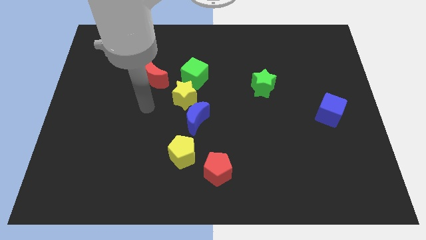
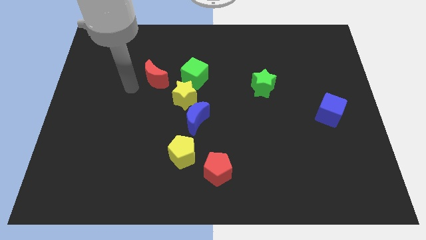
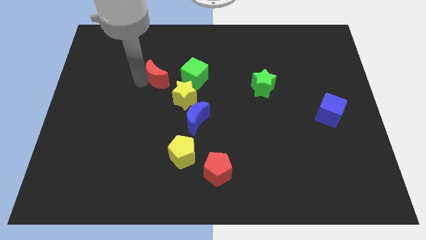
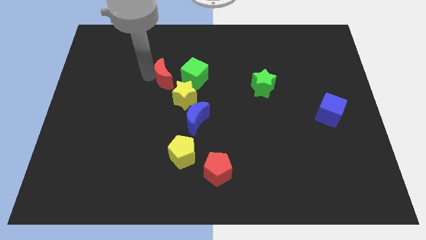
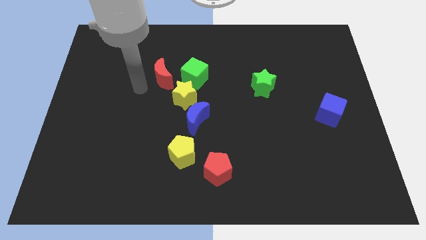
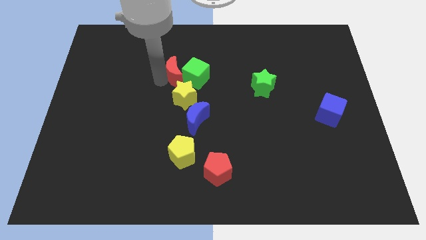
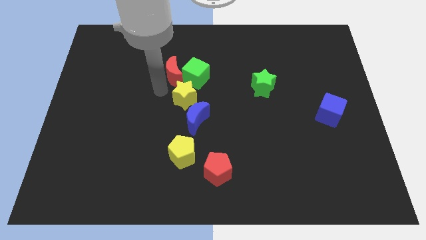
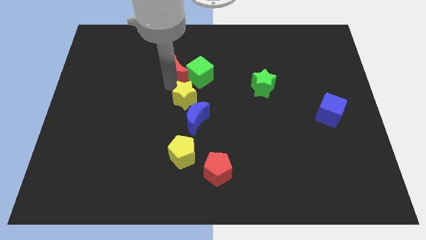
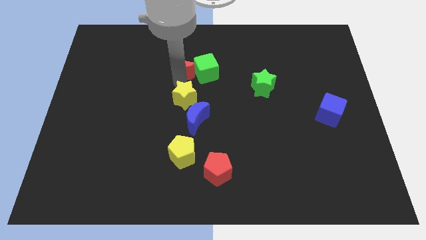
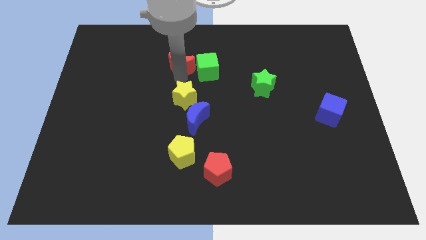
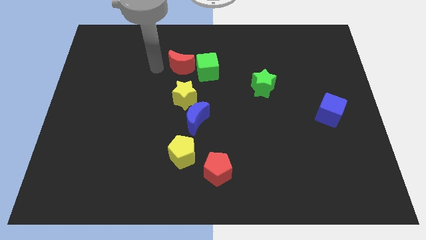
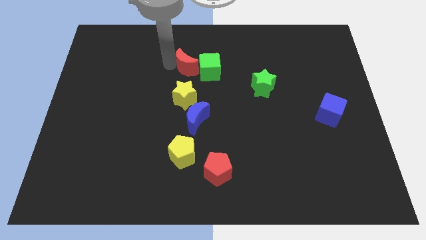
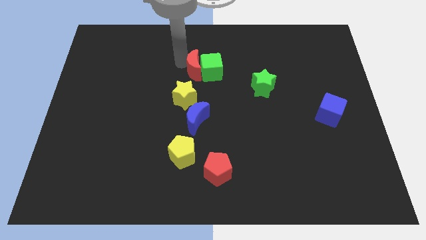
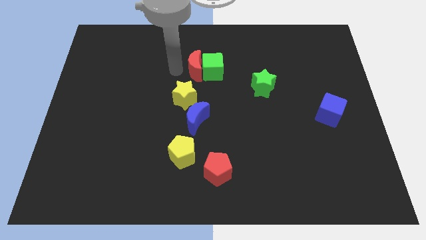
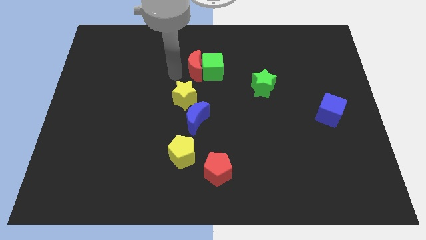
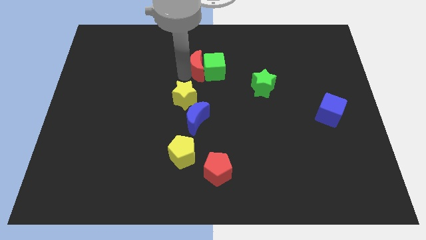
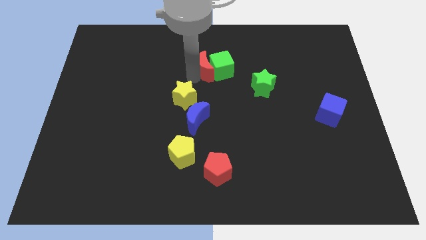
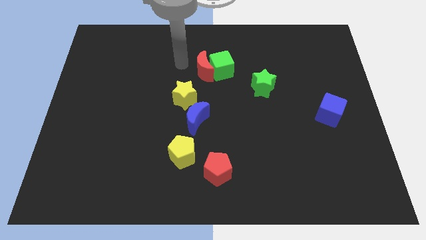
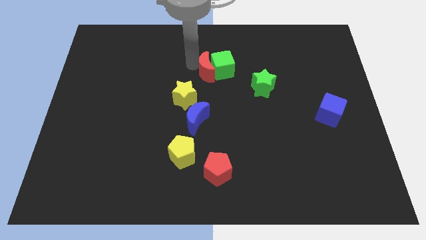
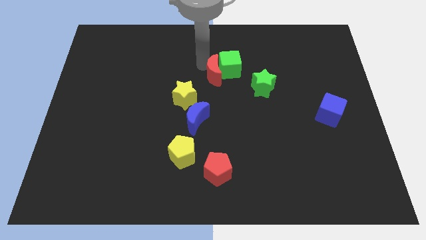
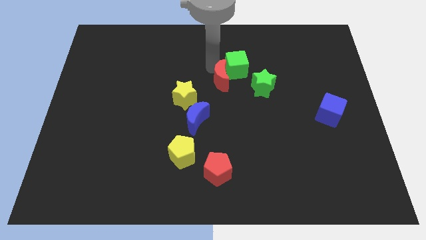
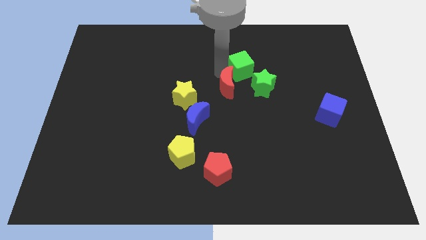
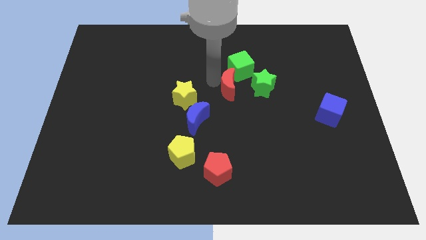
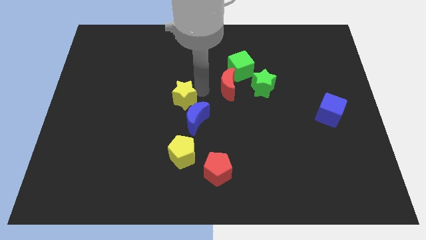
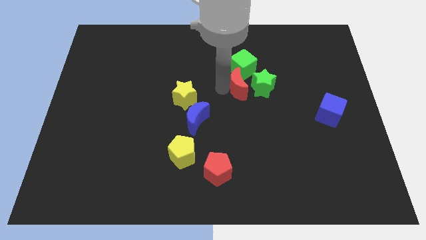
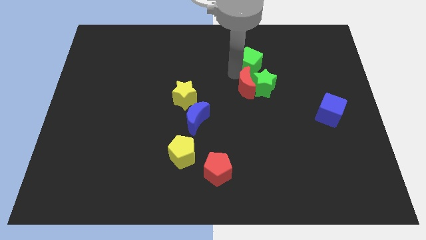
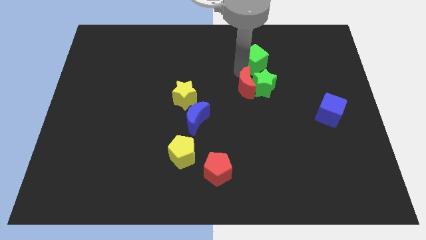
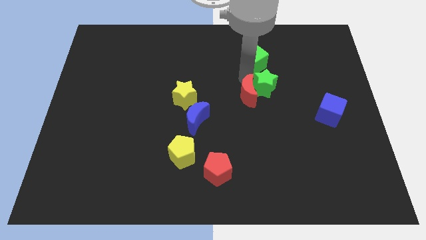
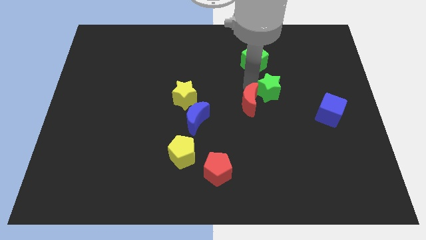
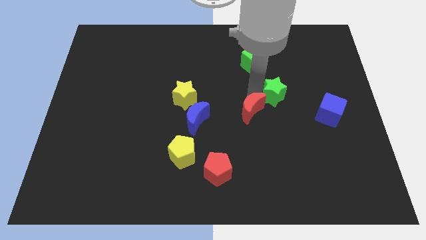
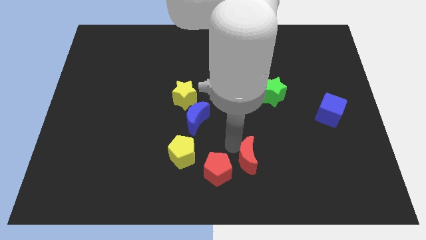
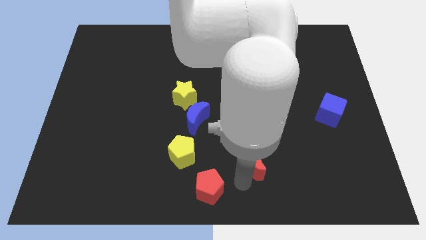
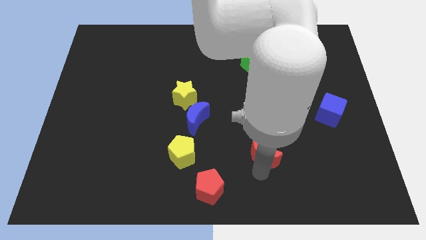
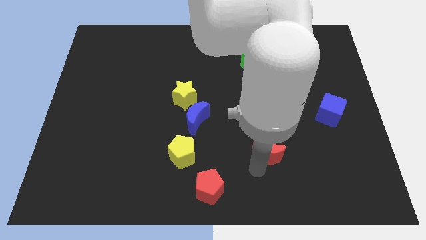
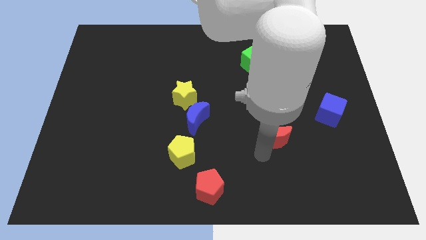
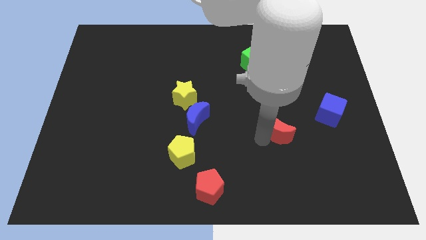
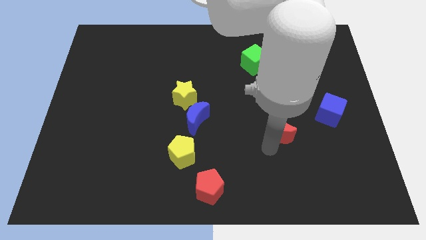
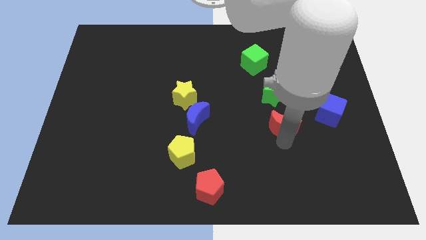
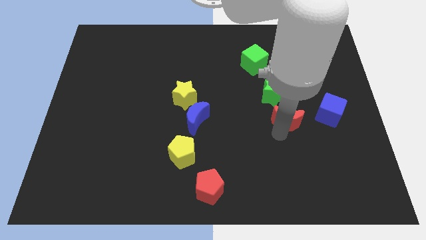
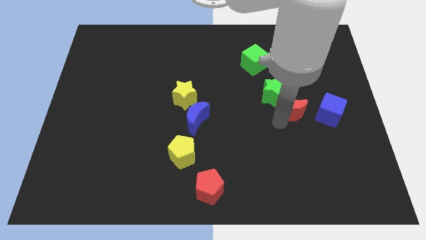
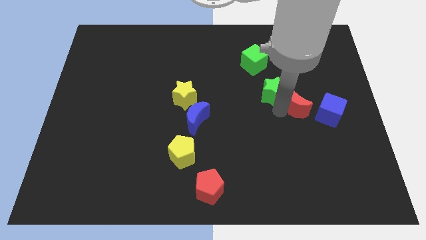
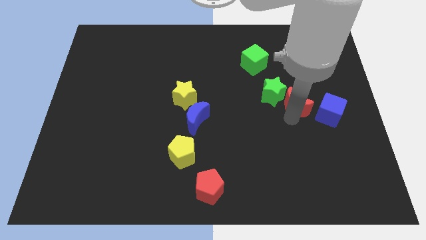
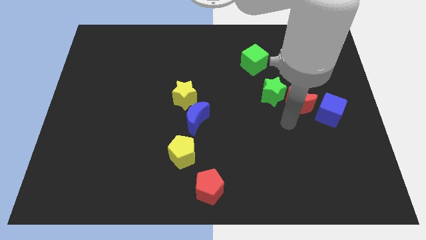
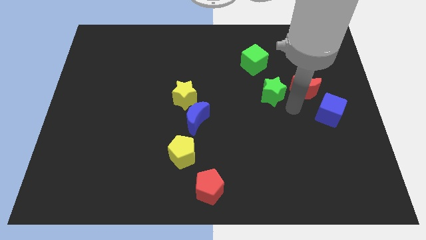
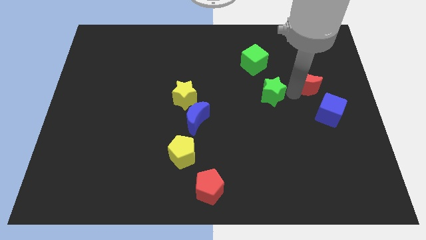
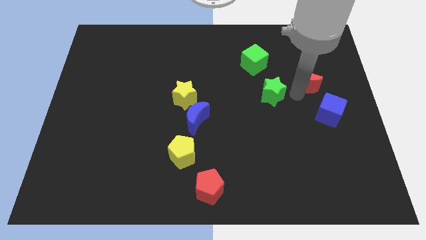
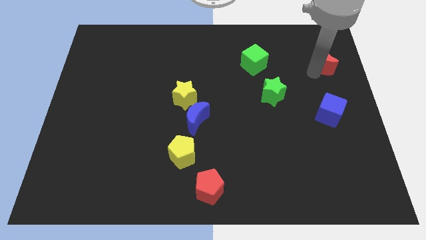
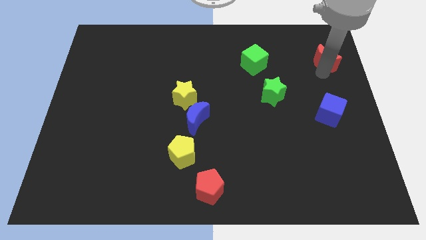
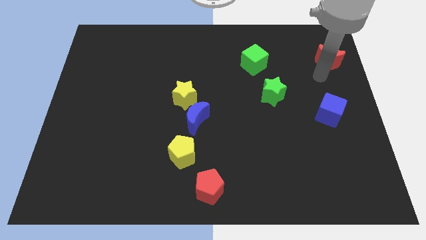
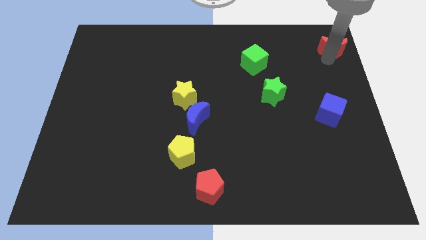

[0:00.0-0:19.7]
slide the red moon to the top right of the board

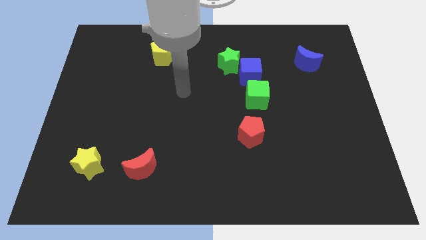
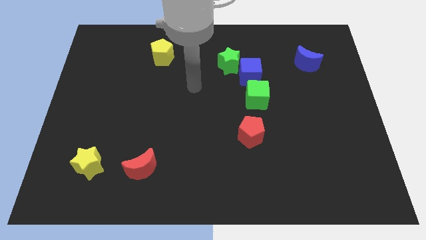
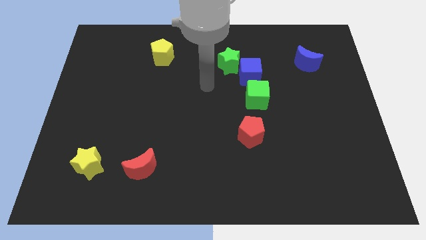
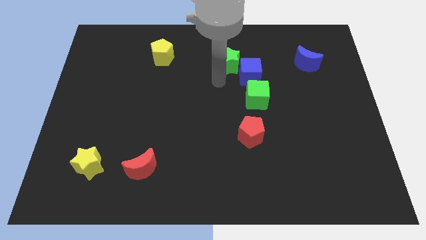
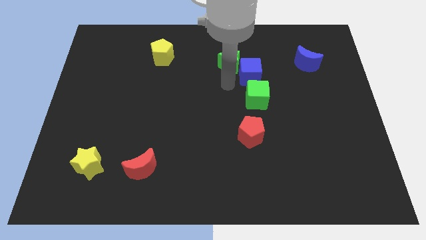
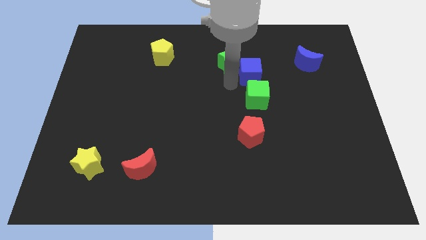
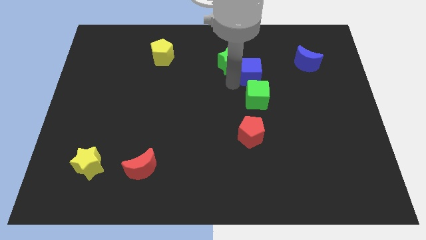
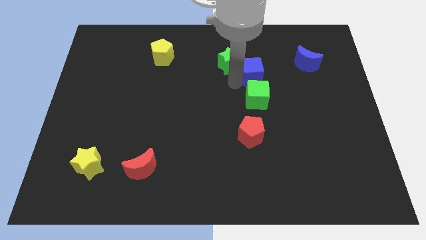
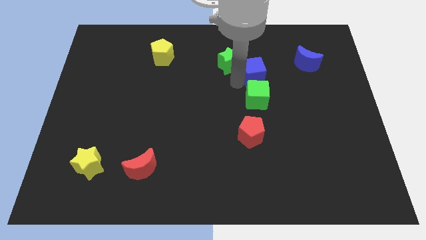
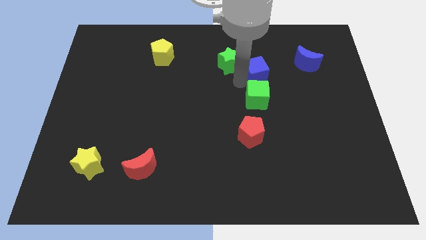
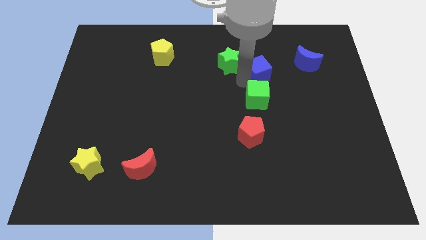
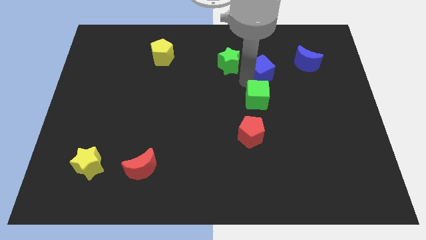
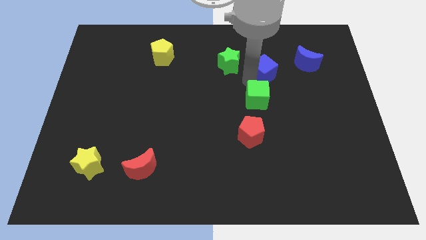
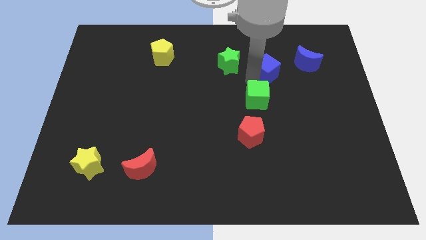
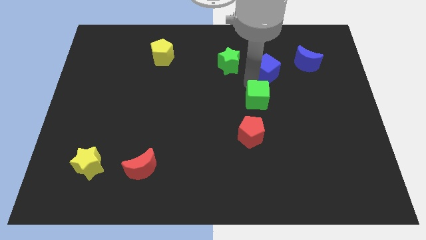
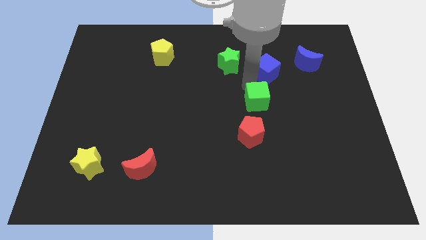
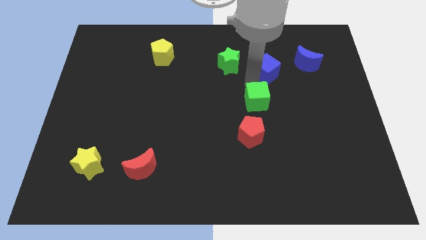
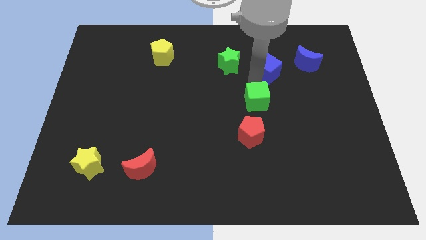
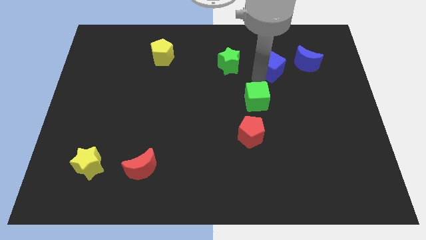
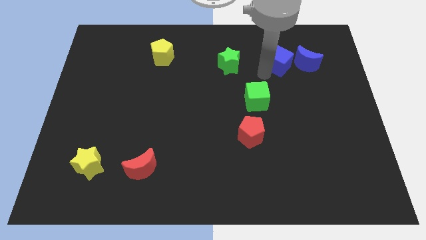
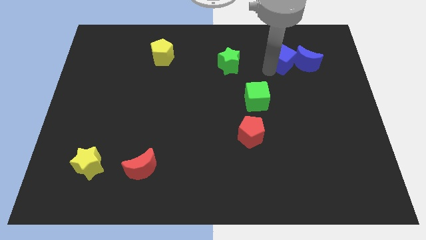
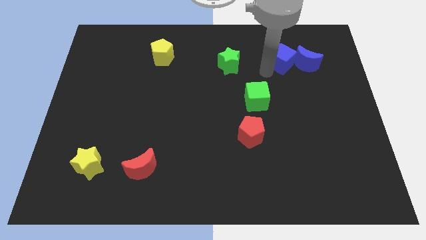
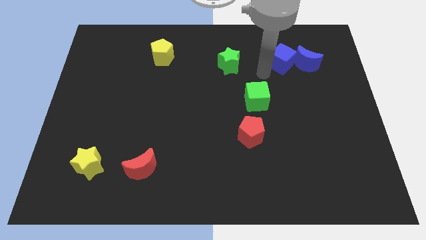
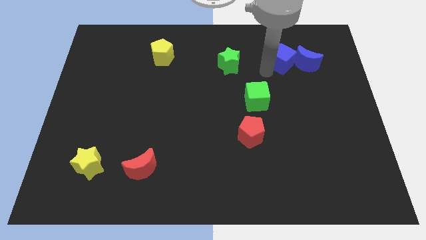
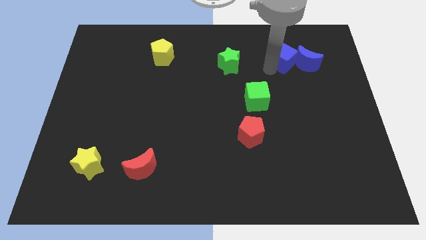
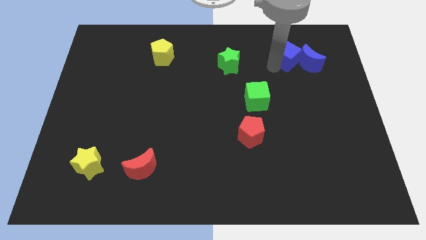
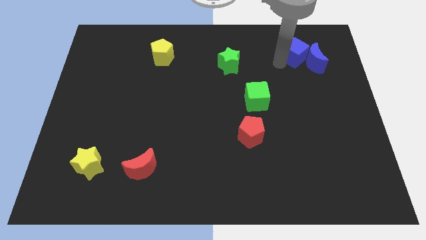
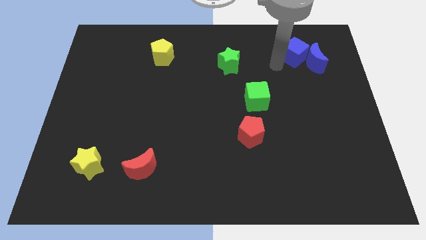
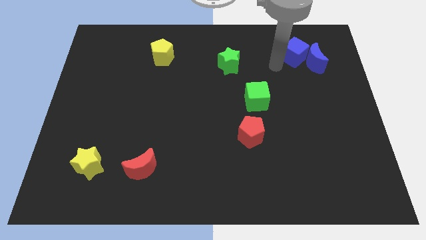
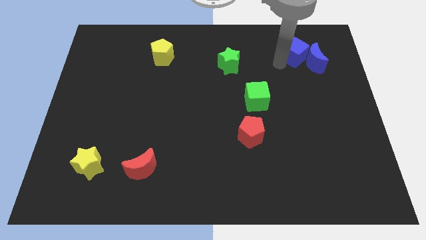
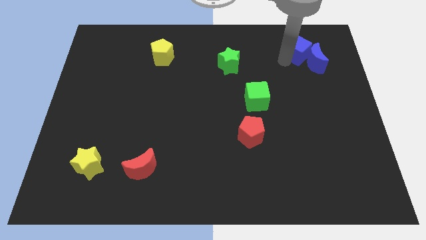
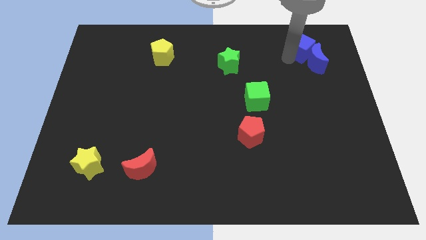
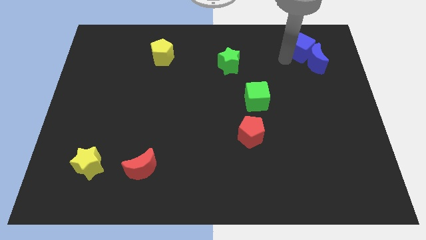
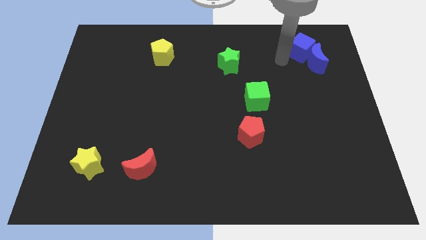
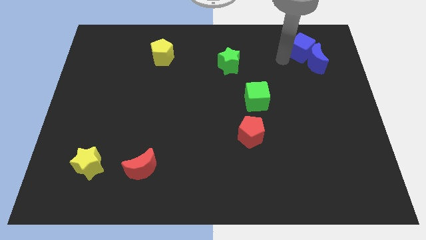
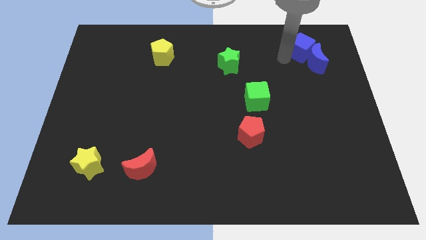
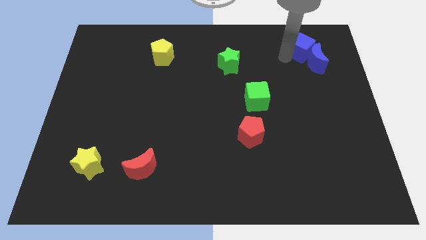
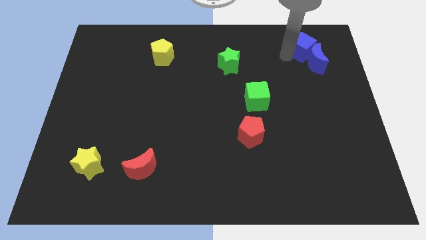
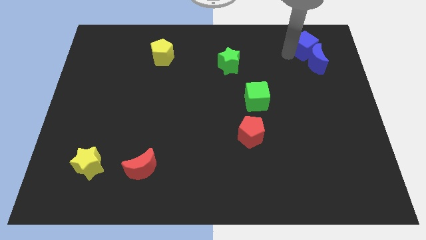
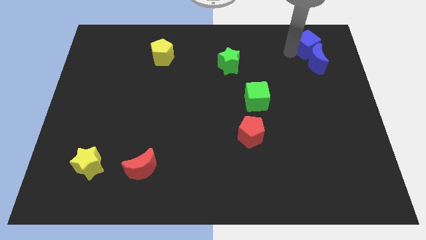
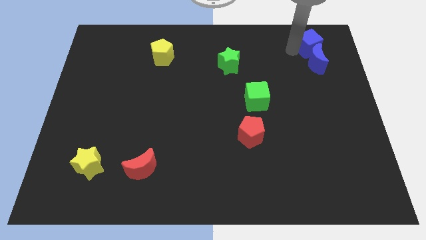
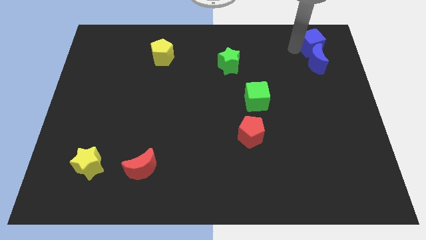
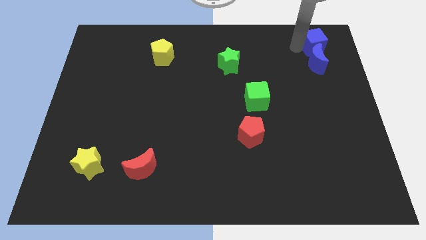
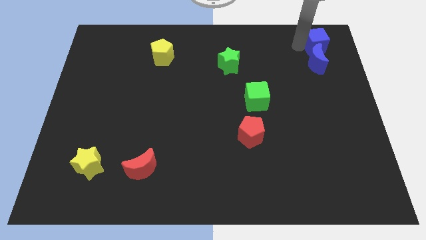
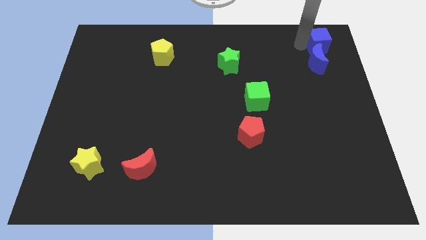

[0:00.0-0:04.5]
slide the blue cube to the upper right corner
